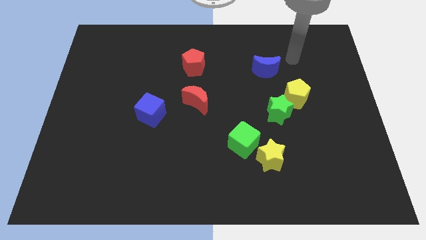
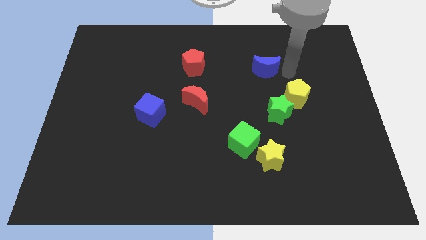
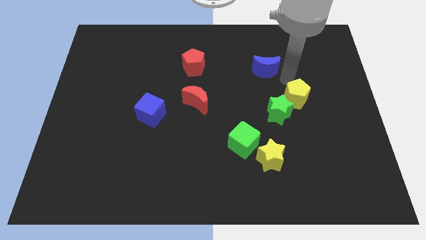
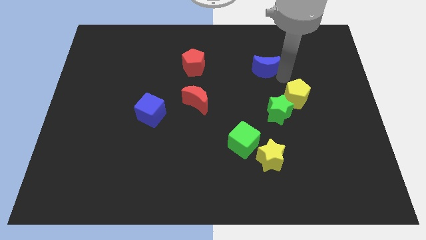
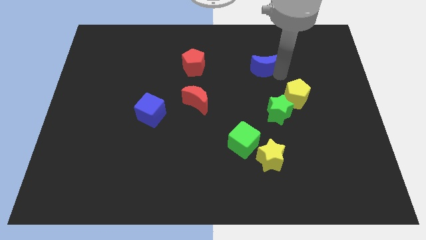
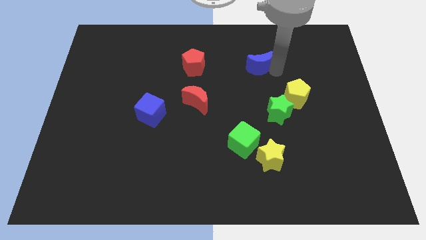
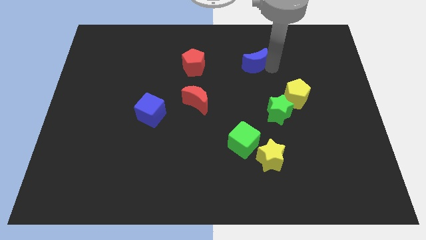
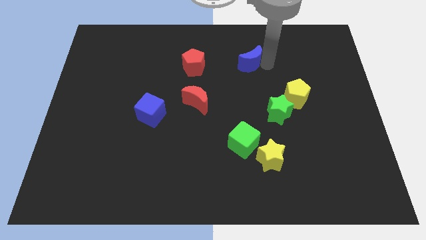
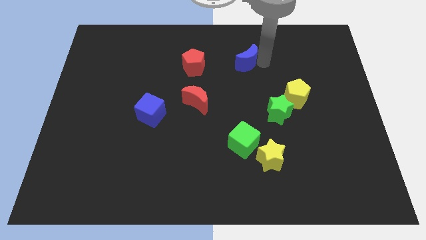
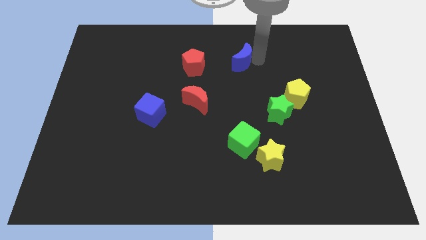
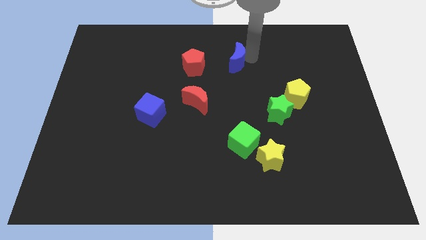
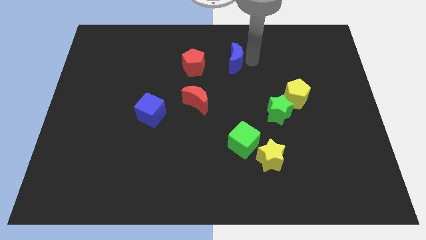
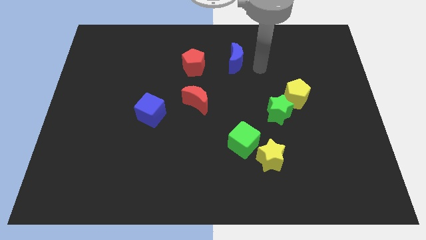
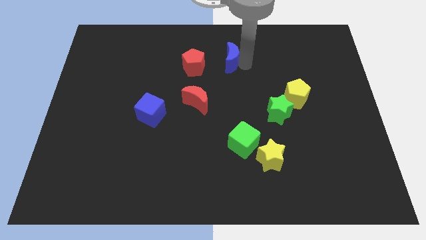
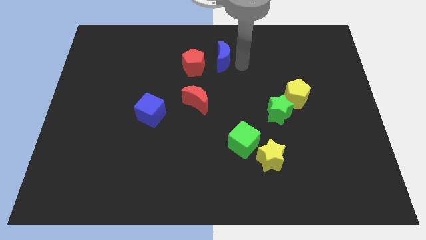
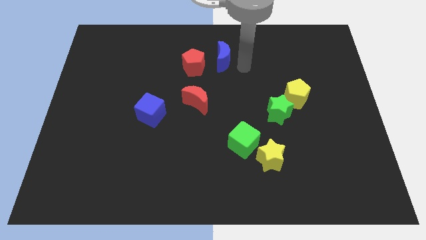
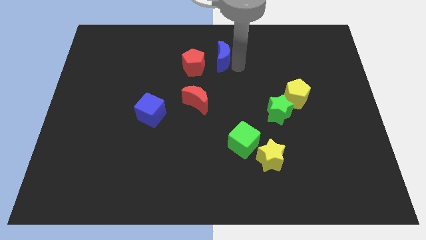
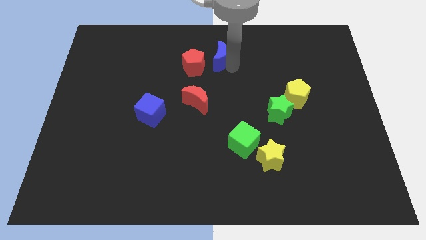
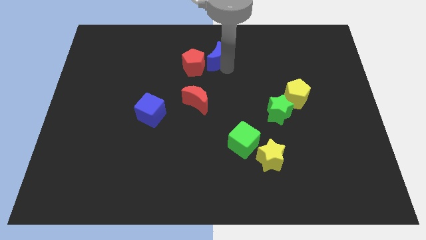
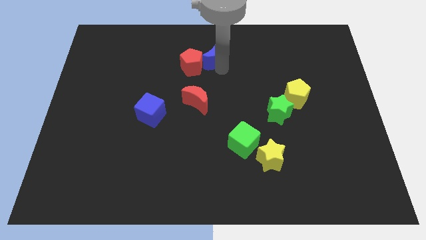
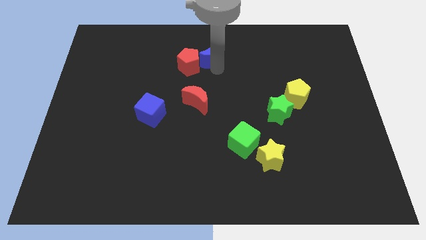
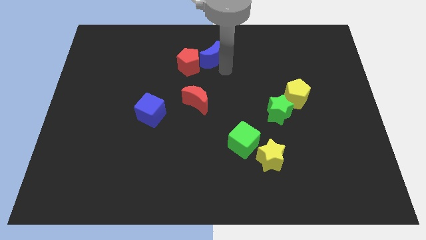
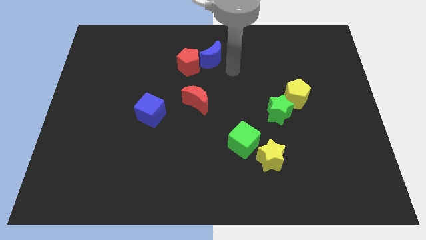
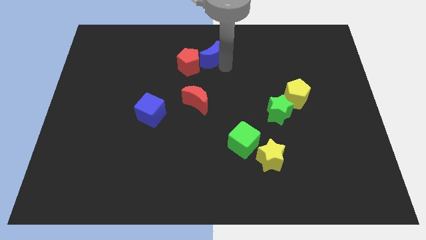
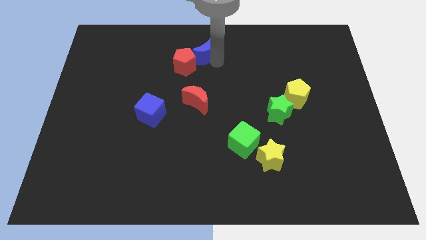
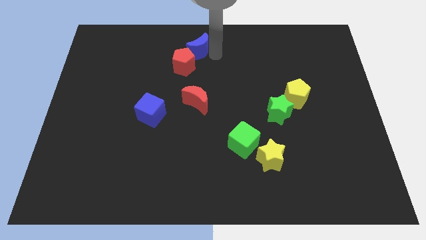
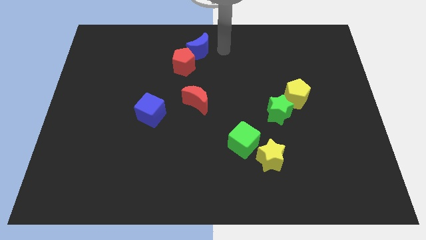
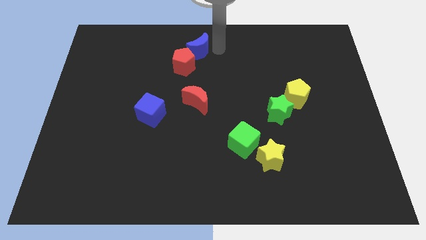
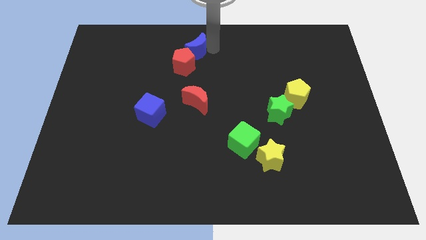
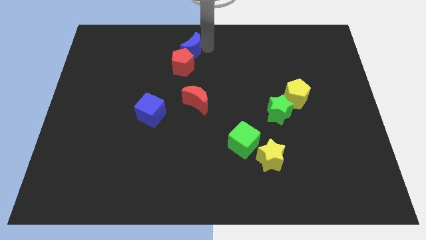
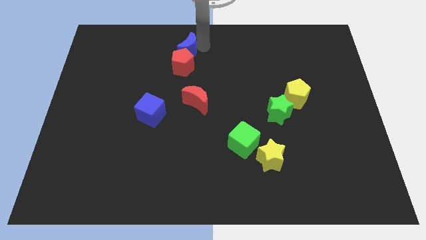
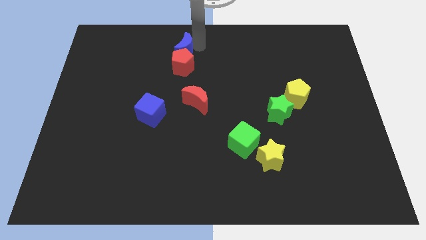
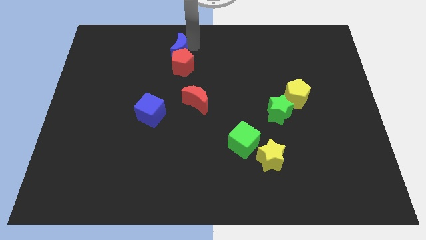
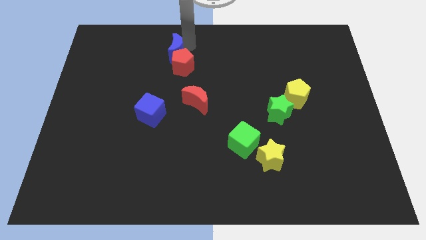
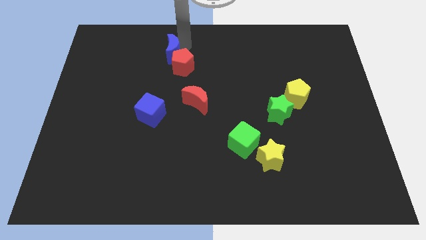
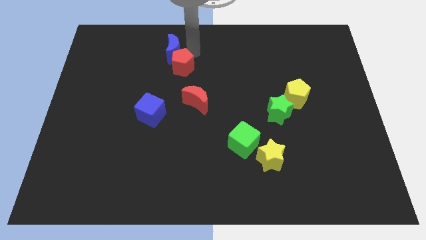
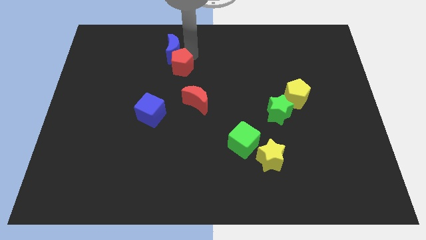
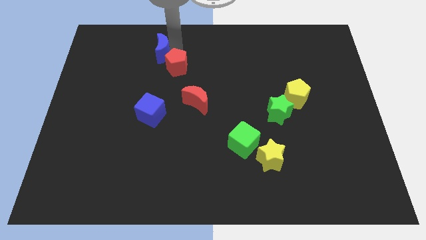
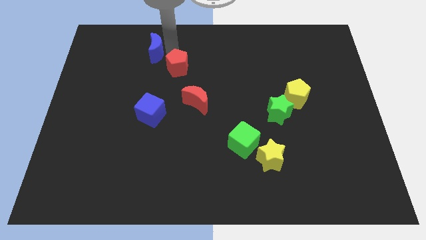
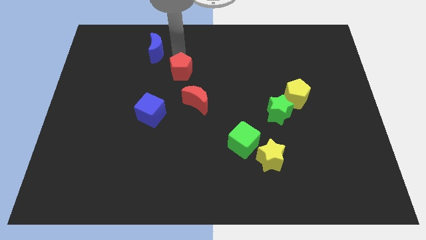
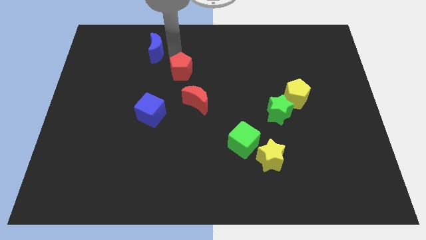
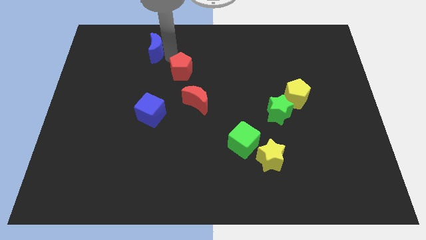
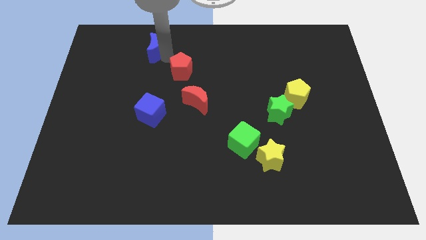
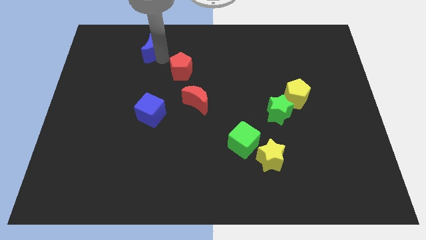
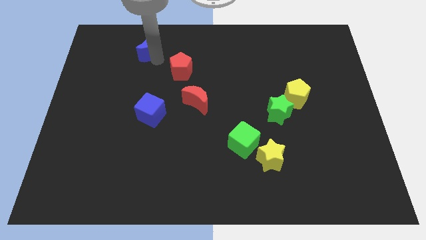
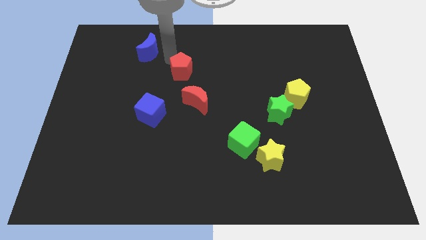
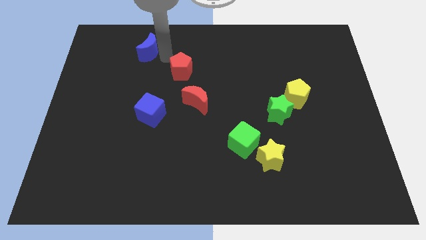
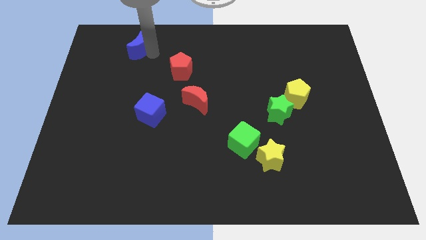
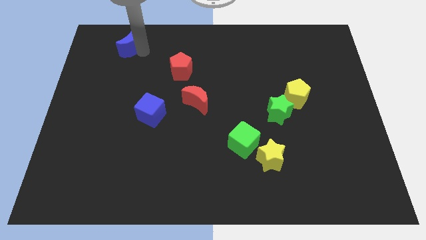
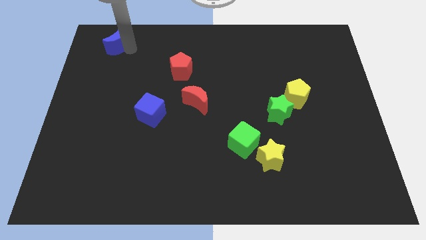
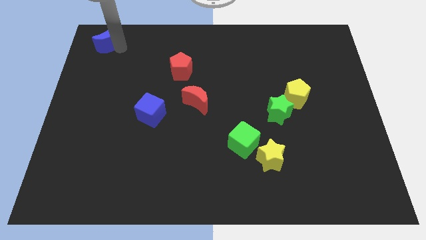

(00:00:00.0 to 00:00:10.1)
slide the blue moon to the top left

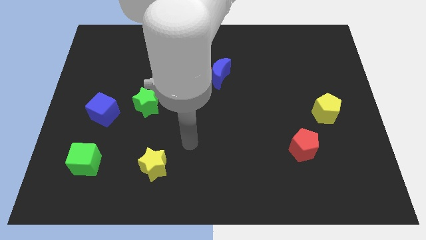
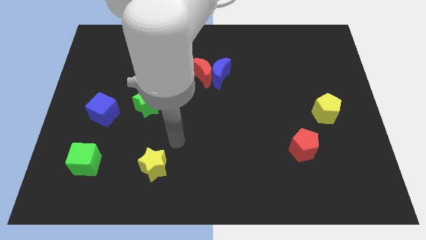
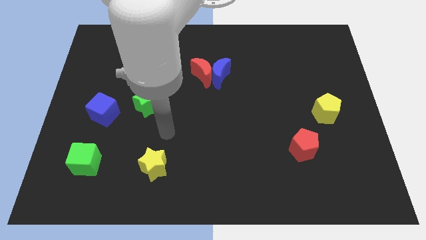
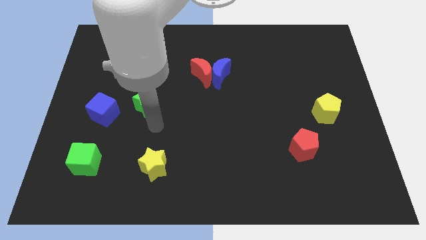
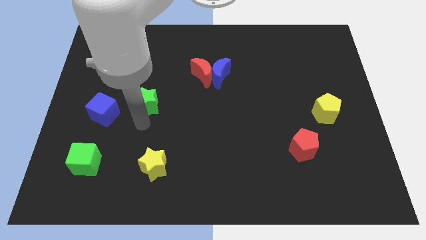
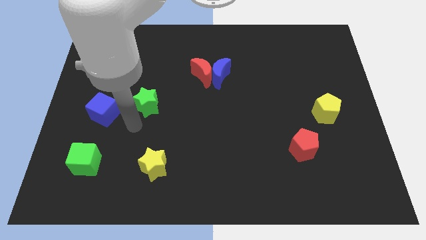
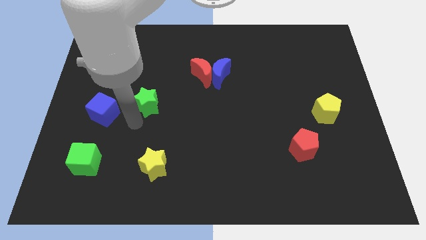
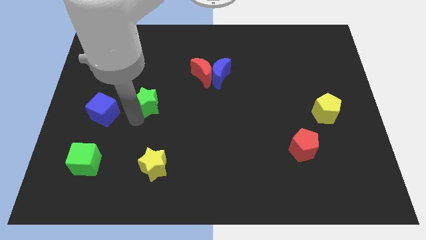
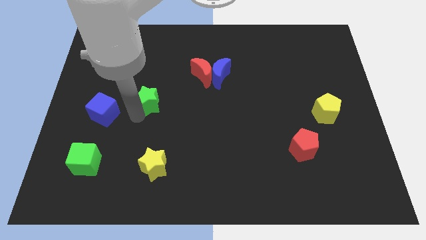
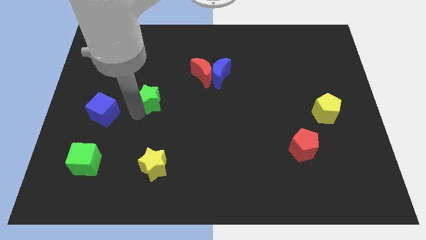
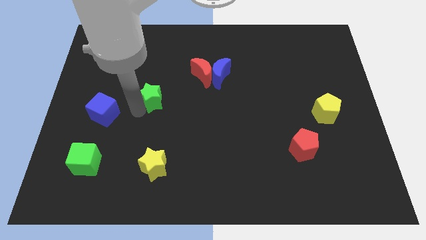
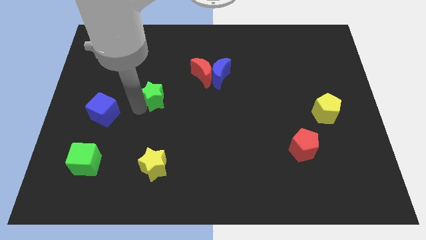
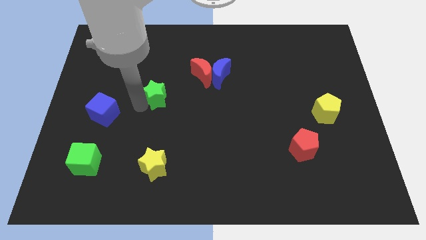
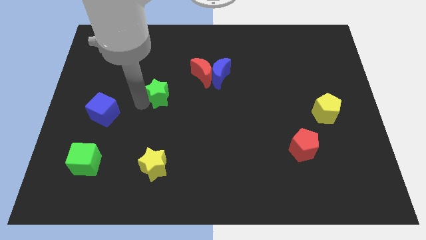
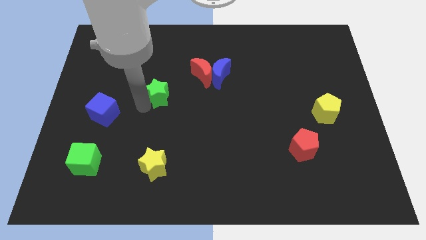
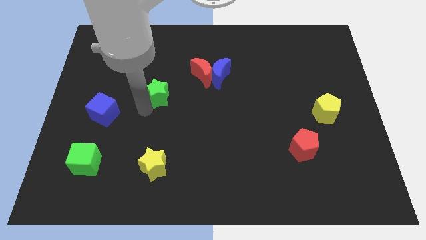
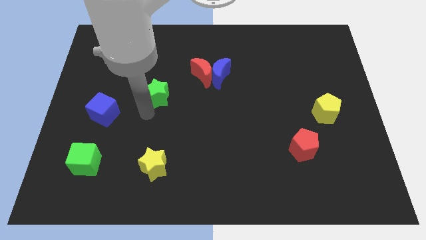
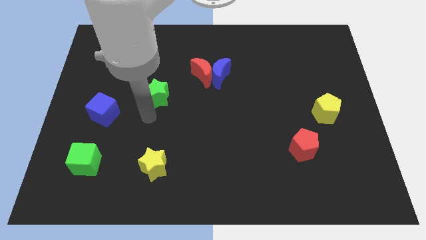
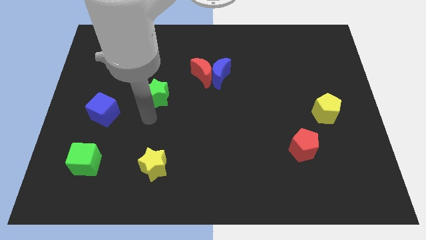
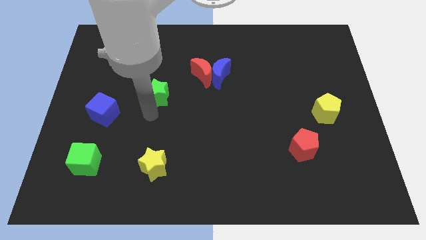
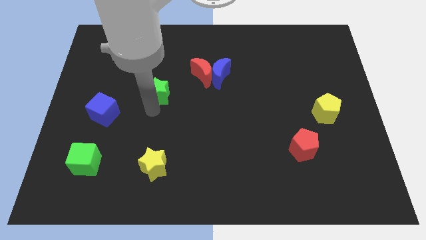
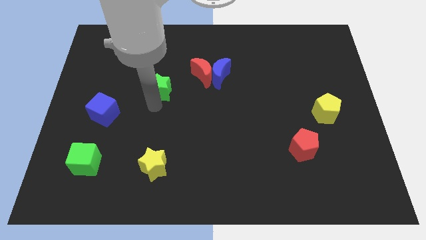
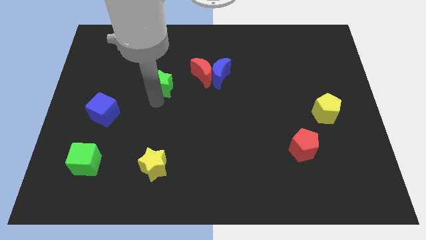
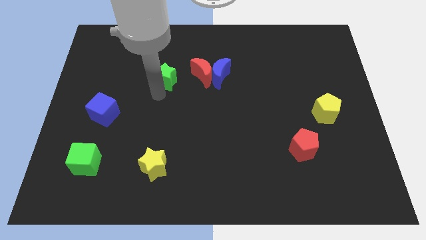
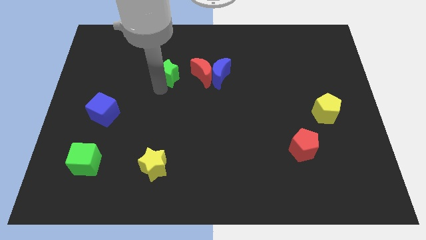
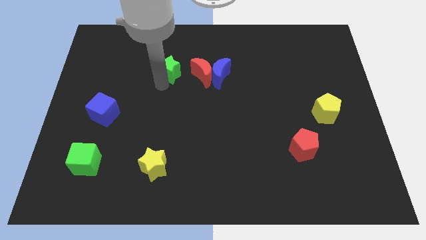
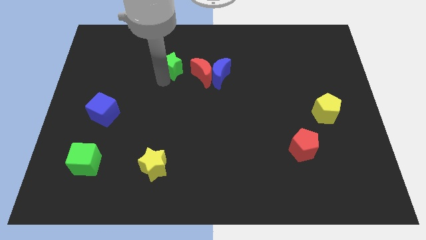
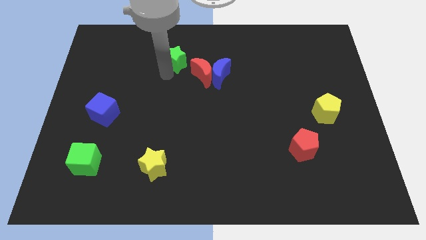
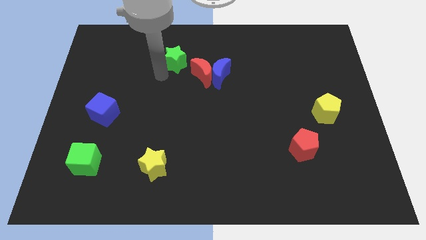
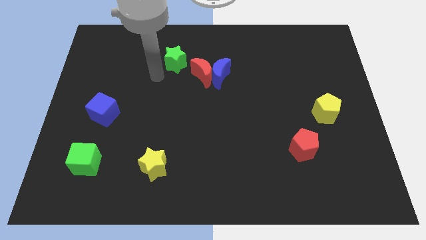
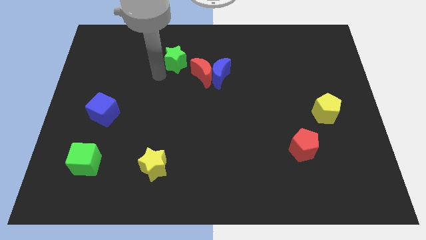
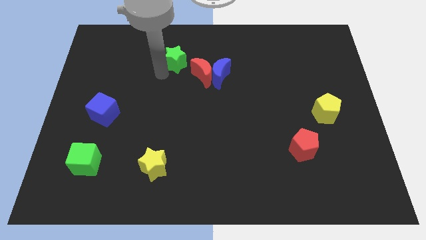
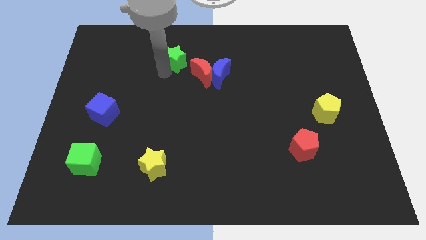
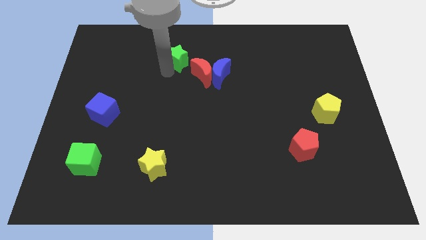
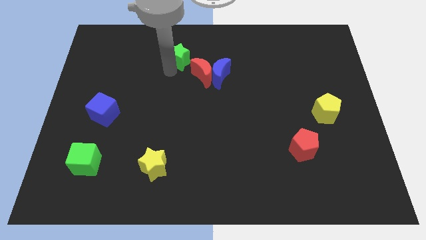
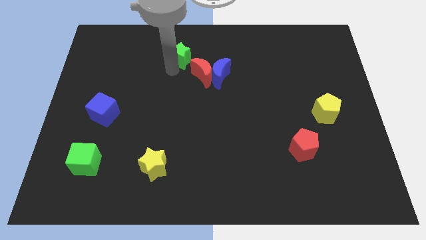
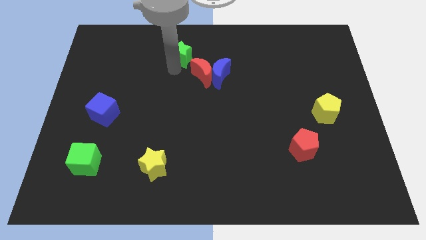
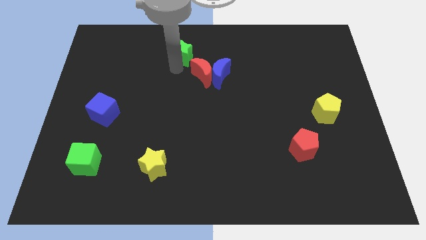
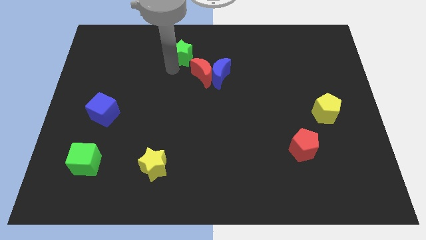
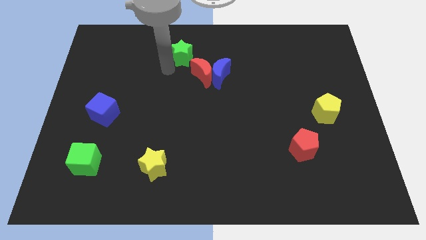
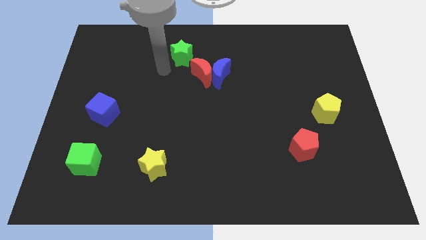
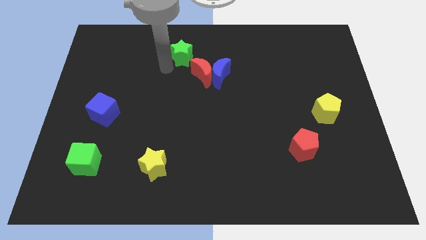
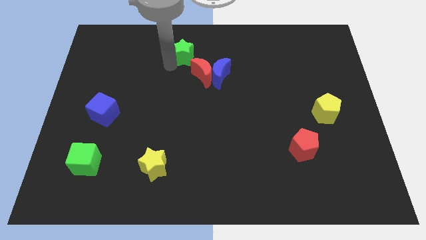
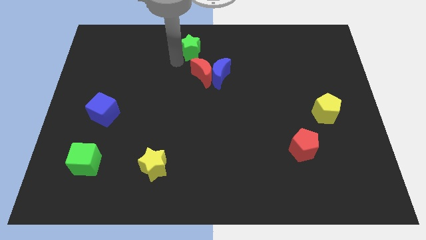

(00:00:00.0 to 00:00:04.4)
push the green star to the top
